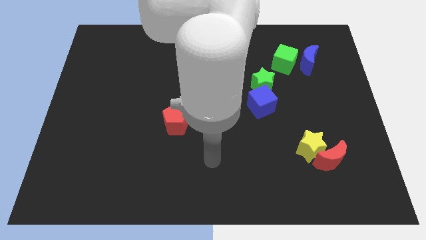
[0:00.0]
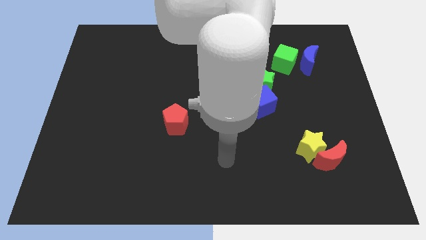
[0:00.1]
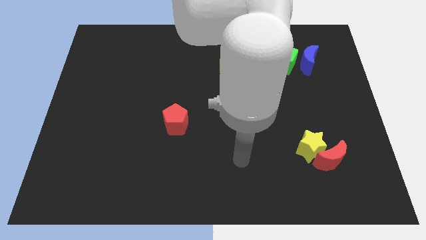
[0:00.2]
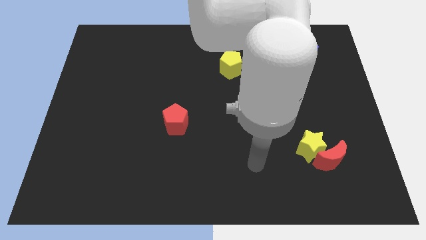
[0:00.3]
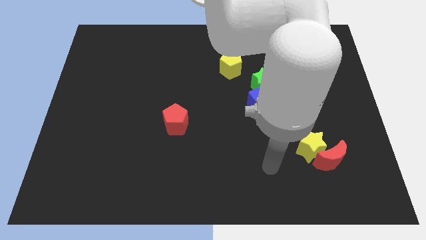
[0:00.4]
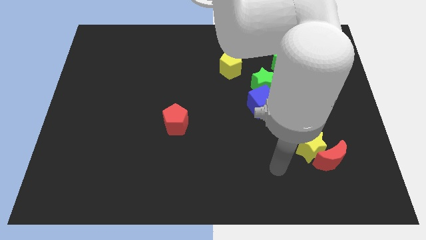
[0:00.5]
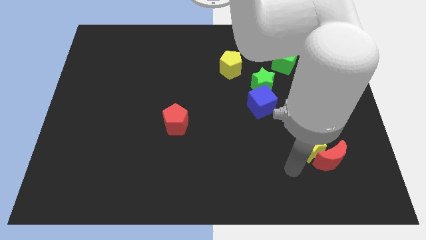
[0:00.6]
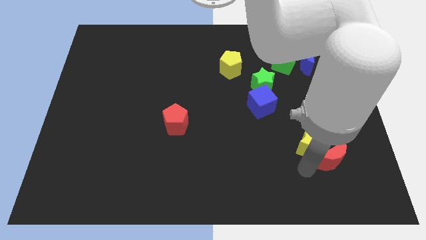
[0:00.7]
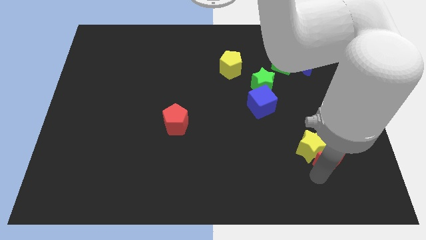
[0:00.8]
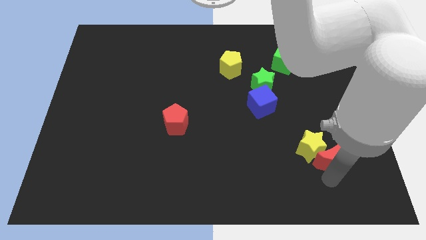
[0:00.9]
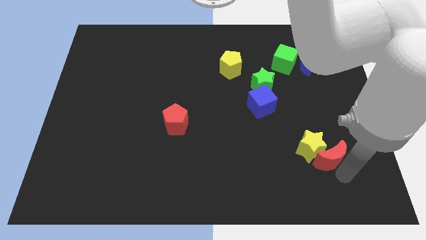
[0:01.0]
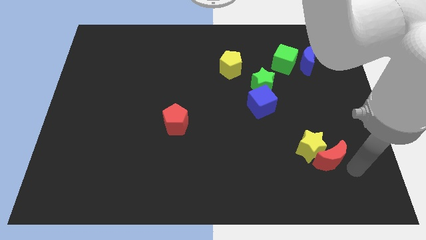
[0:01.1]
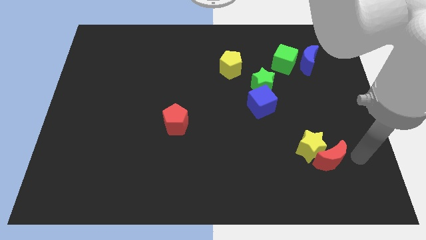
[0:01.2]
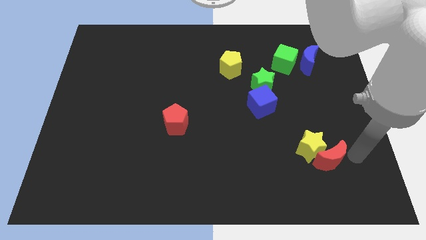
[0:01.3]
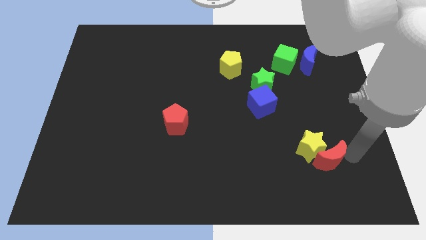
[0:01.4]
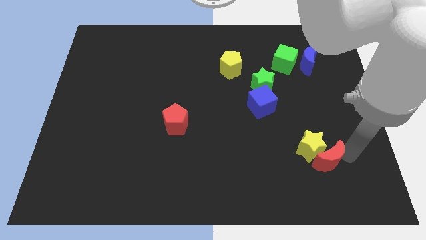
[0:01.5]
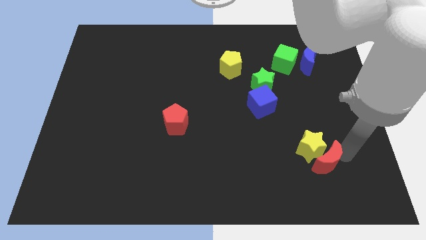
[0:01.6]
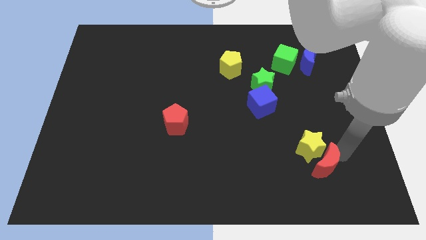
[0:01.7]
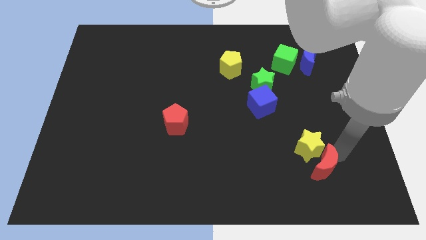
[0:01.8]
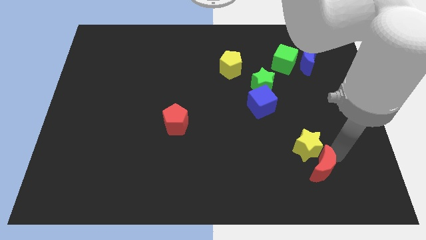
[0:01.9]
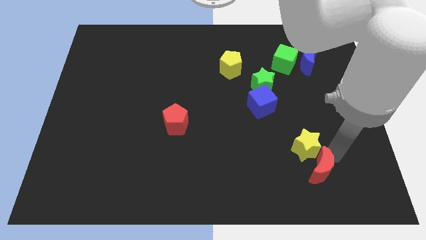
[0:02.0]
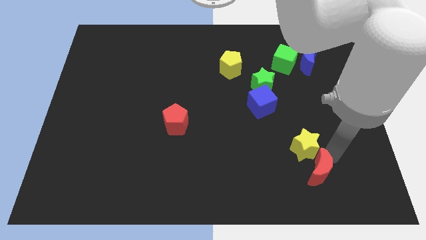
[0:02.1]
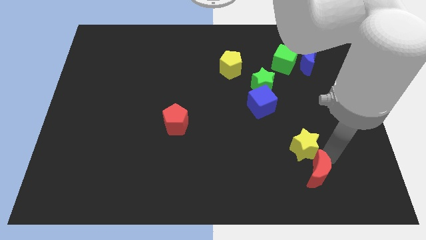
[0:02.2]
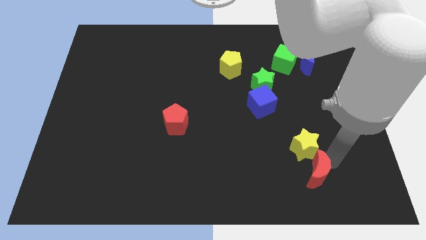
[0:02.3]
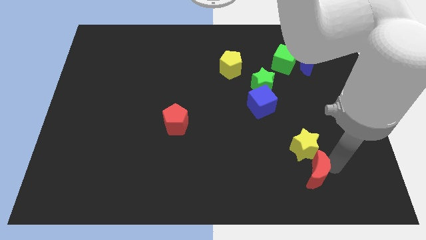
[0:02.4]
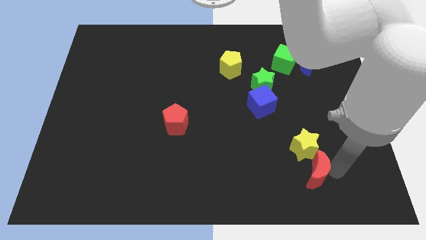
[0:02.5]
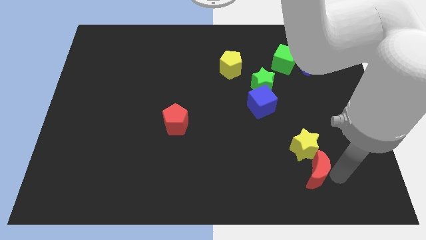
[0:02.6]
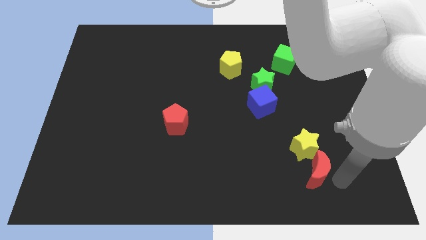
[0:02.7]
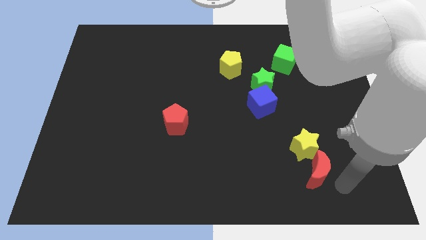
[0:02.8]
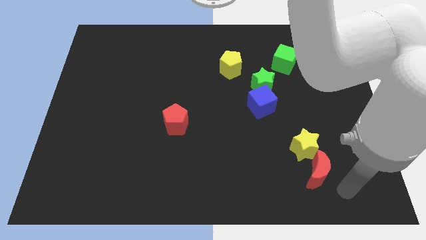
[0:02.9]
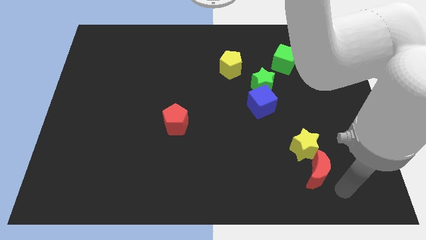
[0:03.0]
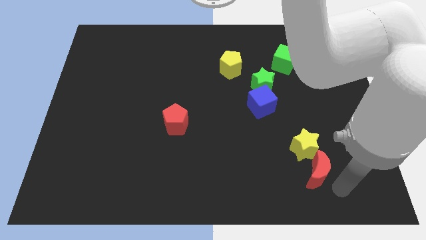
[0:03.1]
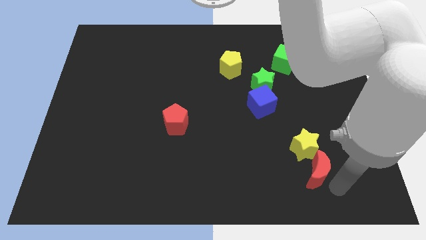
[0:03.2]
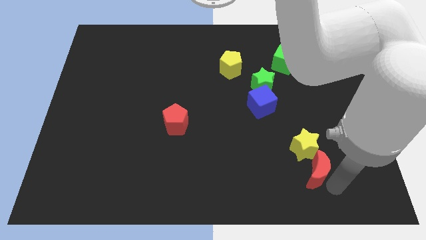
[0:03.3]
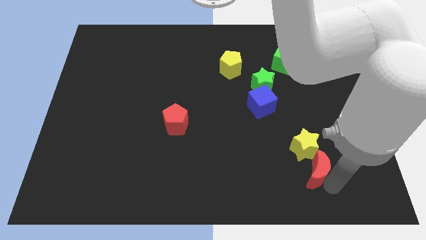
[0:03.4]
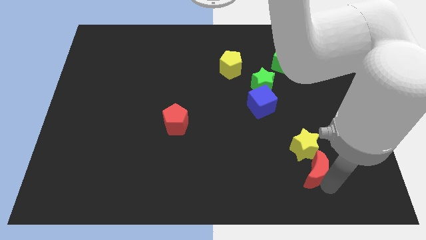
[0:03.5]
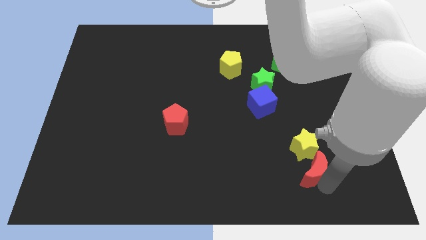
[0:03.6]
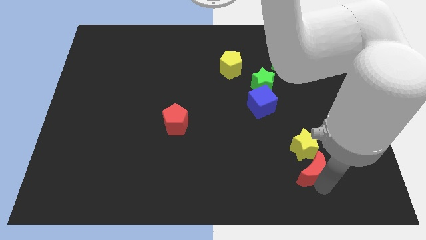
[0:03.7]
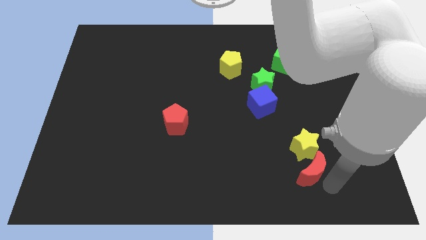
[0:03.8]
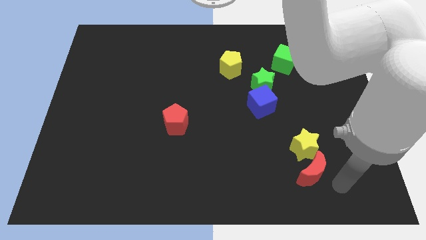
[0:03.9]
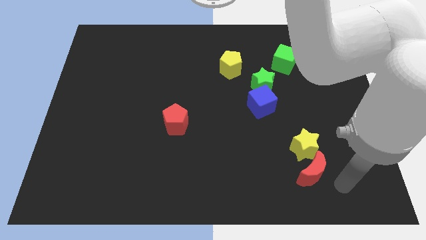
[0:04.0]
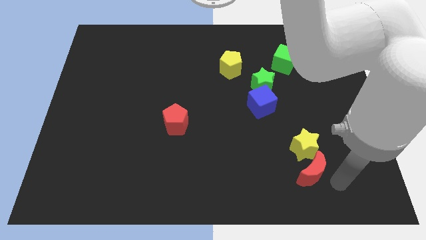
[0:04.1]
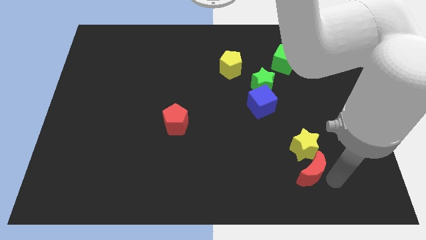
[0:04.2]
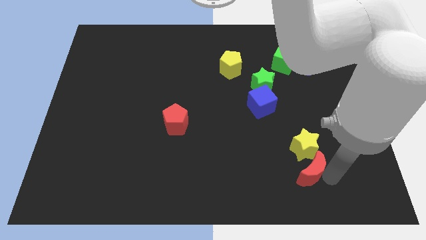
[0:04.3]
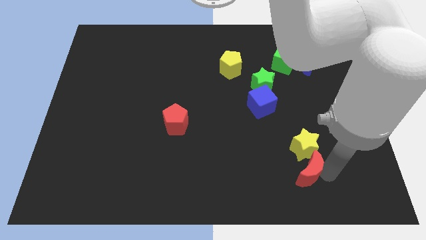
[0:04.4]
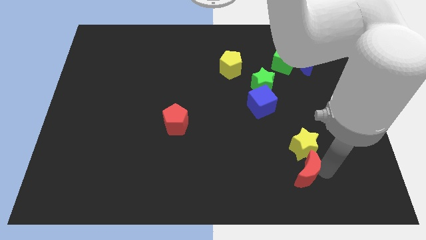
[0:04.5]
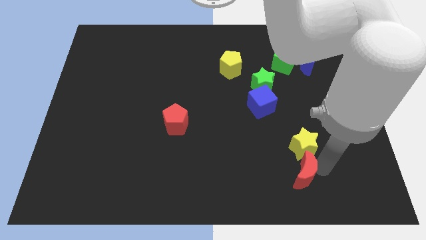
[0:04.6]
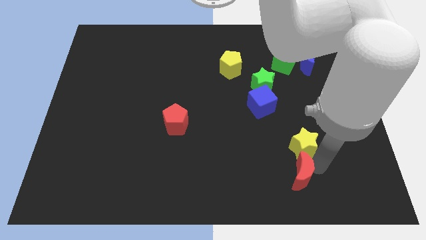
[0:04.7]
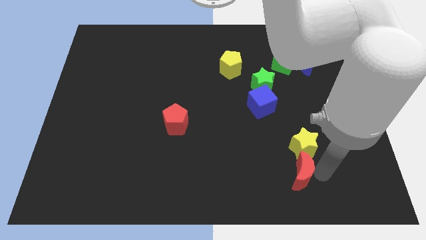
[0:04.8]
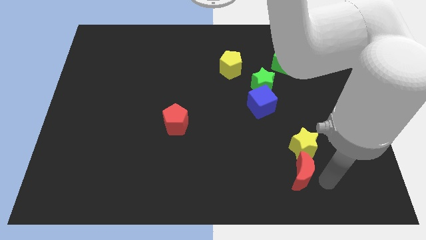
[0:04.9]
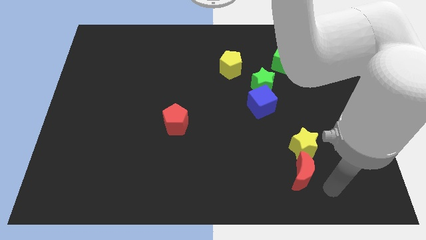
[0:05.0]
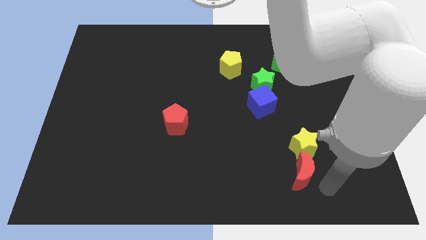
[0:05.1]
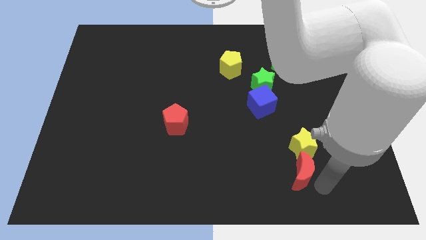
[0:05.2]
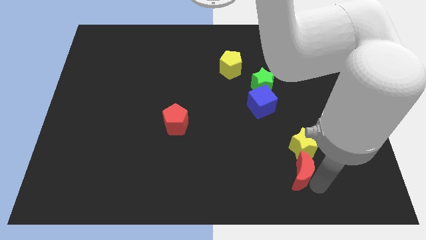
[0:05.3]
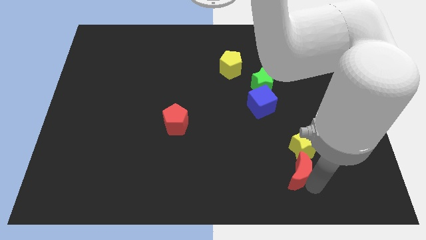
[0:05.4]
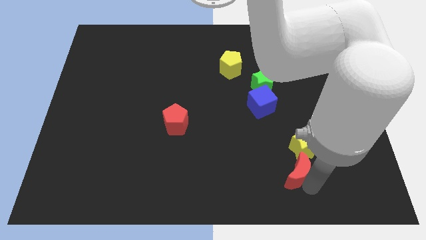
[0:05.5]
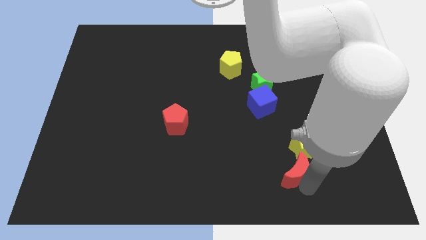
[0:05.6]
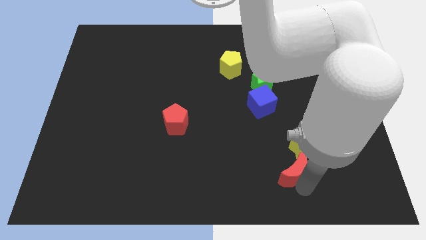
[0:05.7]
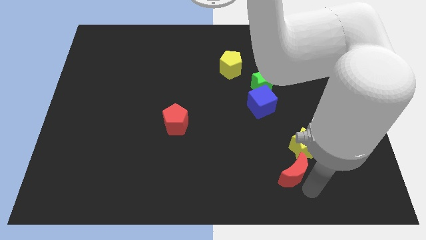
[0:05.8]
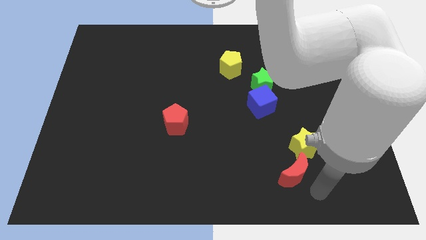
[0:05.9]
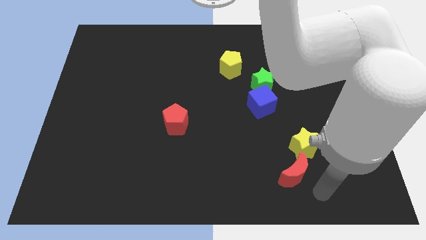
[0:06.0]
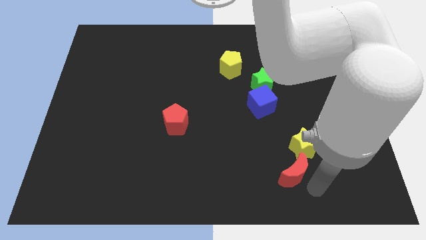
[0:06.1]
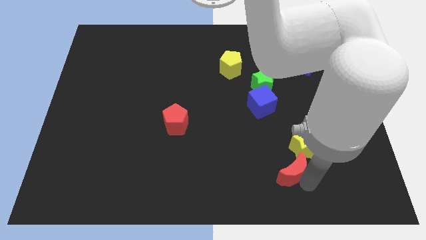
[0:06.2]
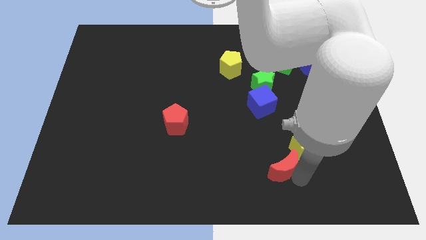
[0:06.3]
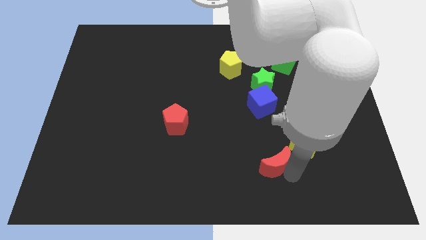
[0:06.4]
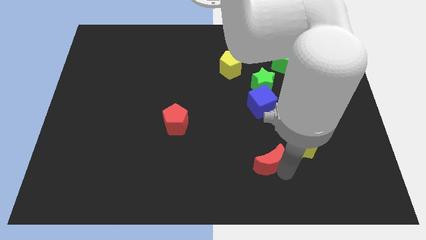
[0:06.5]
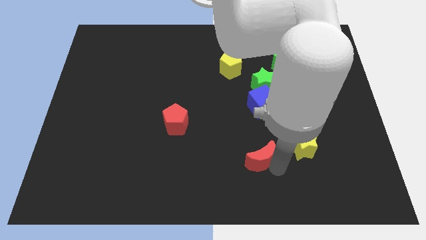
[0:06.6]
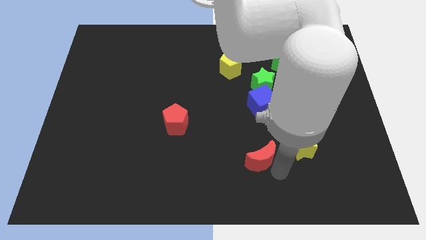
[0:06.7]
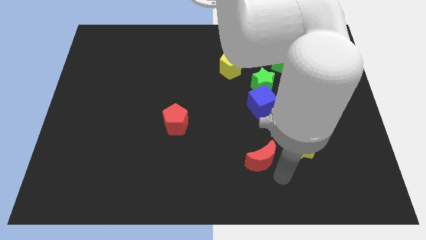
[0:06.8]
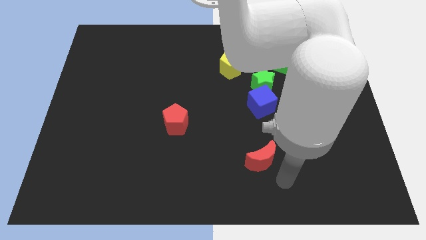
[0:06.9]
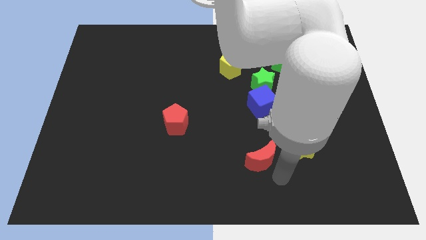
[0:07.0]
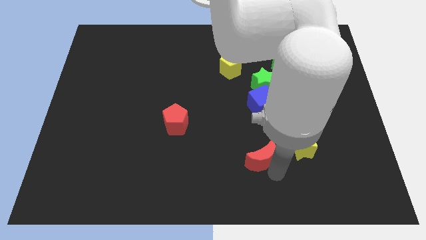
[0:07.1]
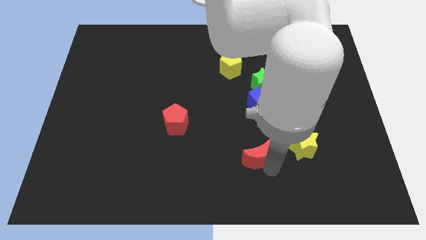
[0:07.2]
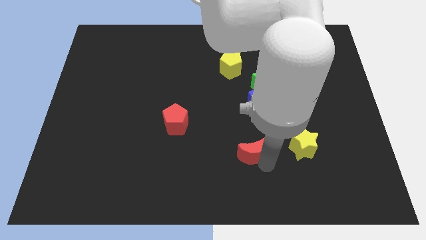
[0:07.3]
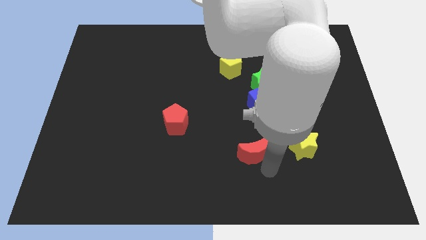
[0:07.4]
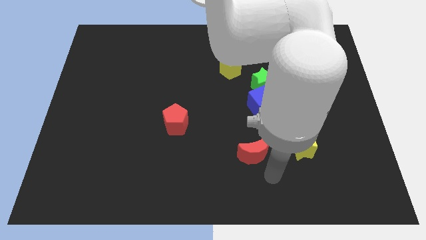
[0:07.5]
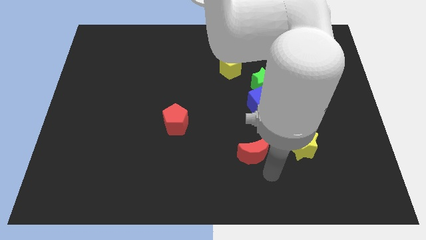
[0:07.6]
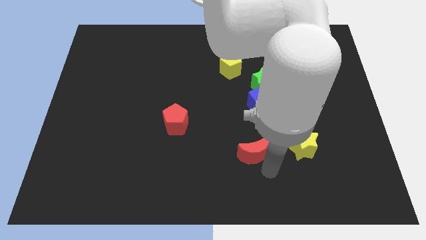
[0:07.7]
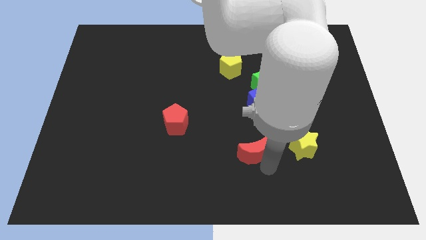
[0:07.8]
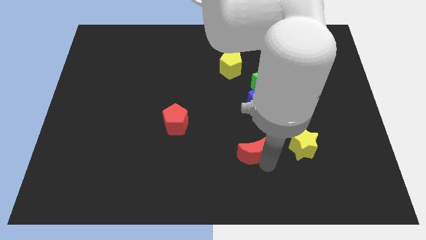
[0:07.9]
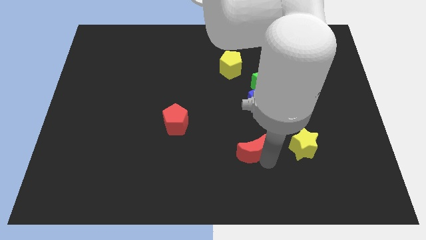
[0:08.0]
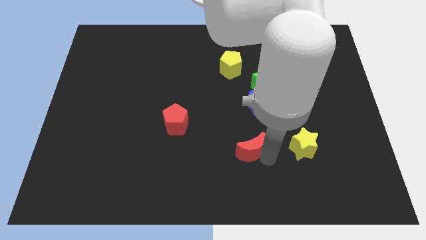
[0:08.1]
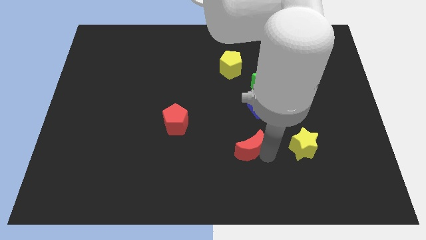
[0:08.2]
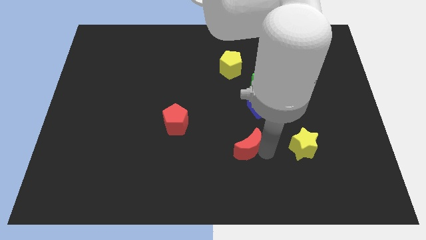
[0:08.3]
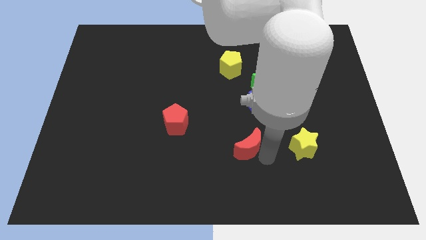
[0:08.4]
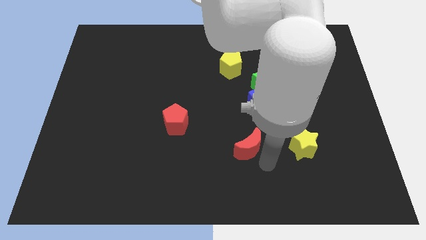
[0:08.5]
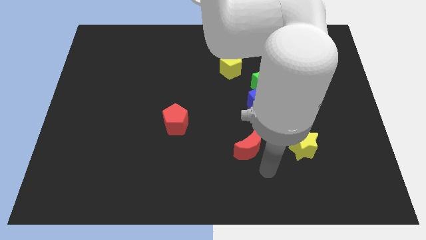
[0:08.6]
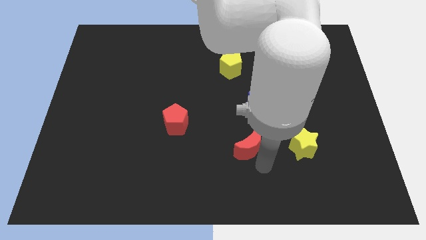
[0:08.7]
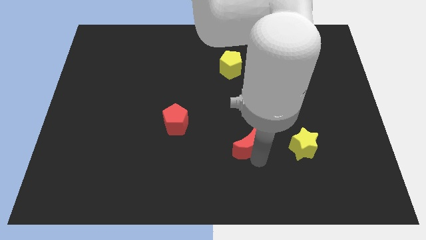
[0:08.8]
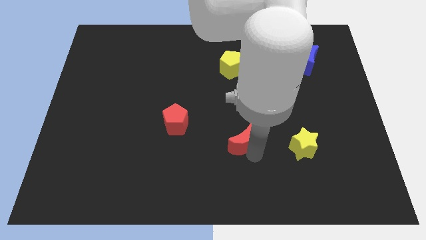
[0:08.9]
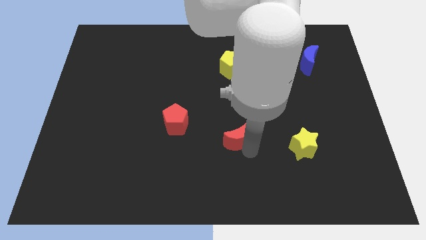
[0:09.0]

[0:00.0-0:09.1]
move the red moon to the center
